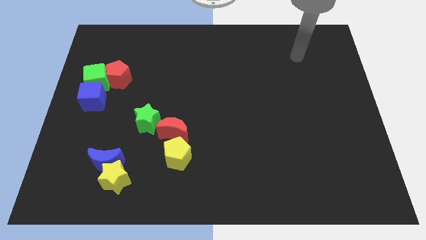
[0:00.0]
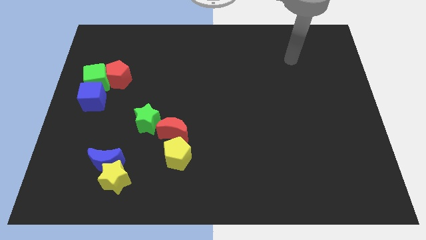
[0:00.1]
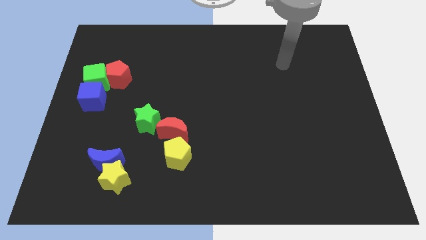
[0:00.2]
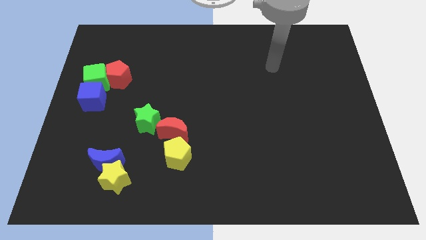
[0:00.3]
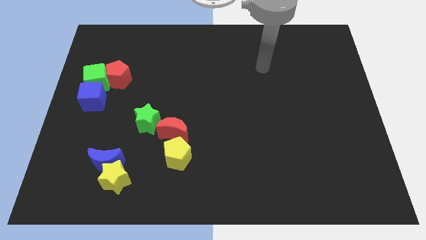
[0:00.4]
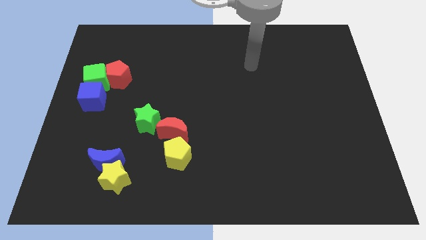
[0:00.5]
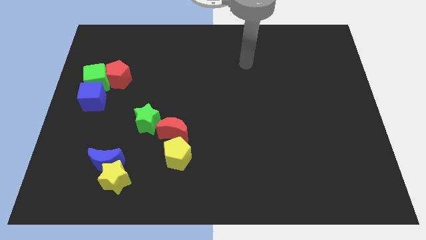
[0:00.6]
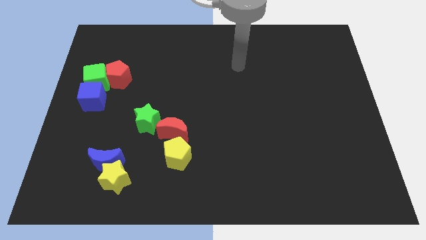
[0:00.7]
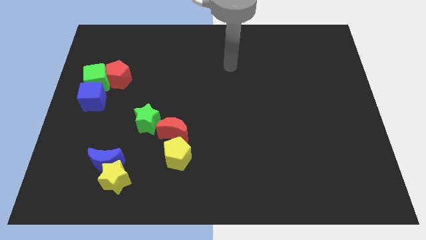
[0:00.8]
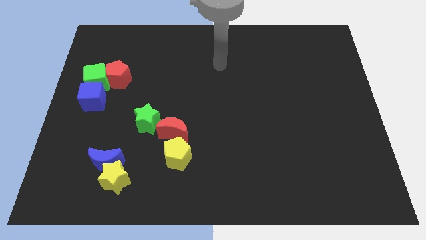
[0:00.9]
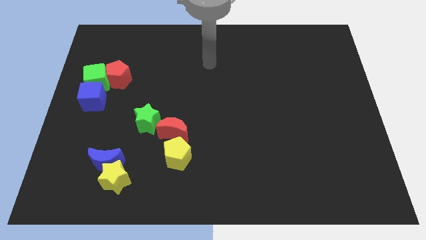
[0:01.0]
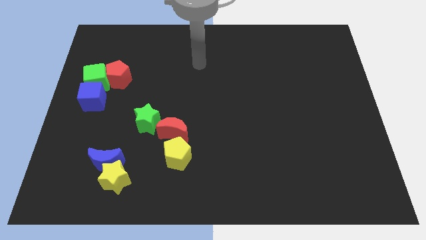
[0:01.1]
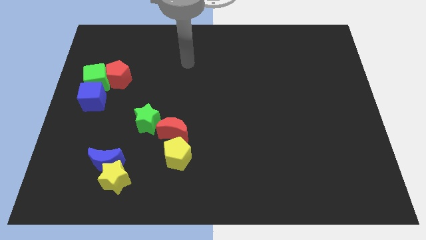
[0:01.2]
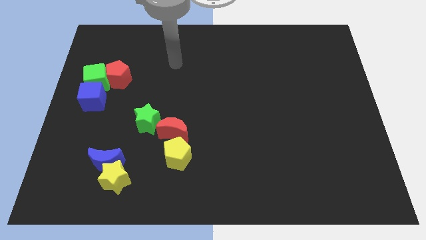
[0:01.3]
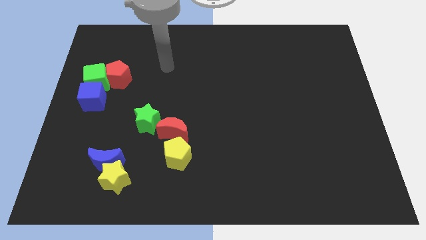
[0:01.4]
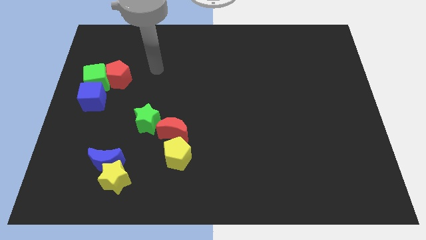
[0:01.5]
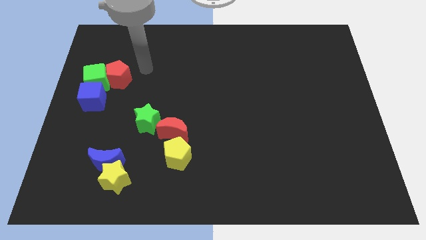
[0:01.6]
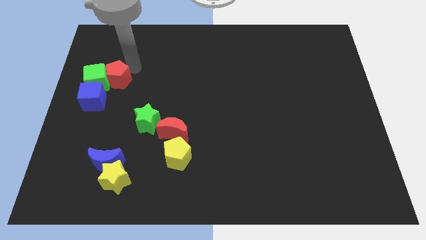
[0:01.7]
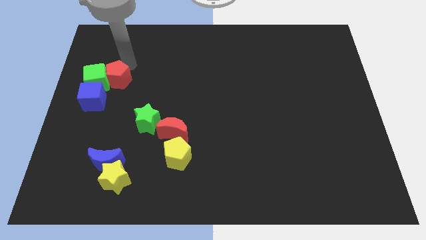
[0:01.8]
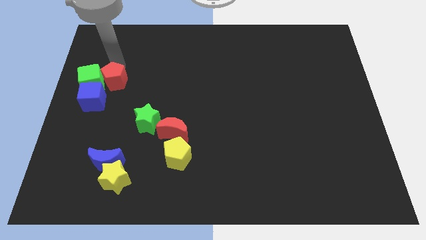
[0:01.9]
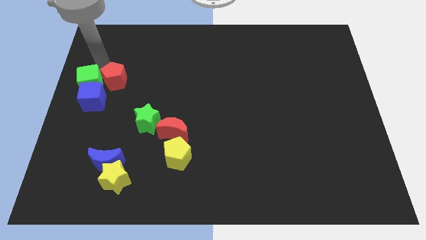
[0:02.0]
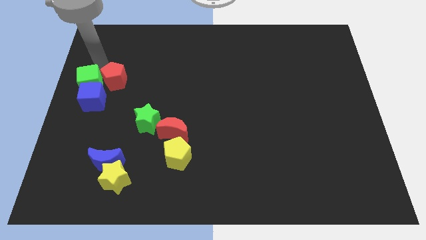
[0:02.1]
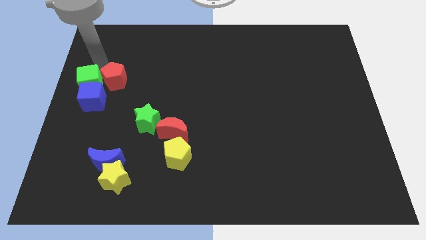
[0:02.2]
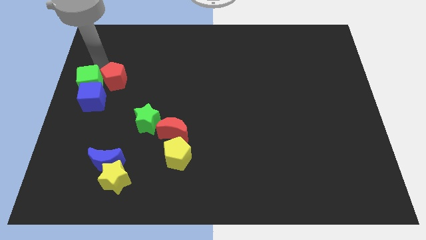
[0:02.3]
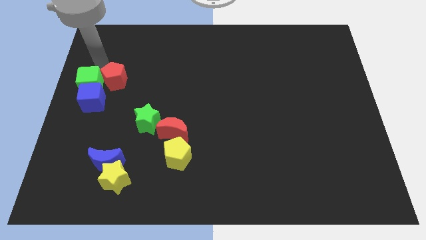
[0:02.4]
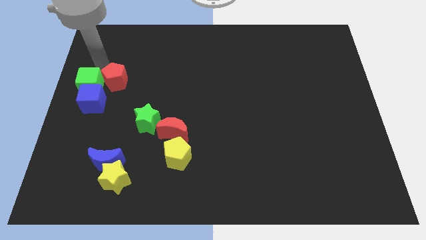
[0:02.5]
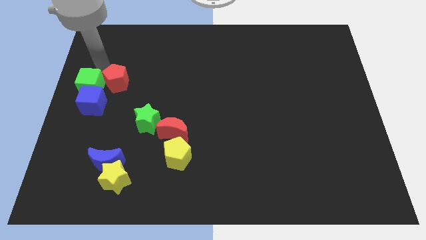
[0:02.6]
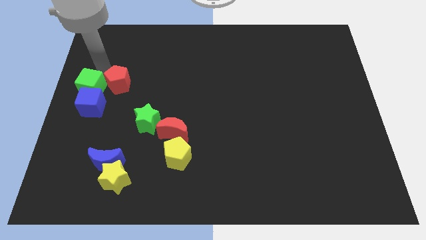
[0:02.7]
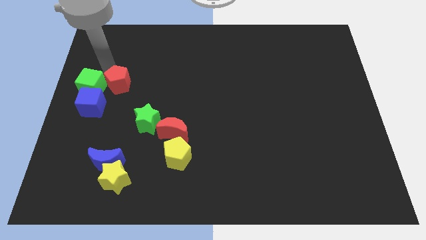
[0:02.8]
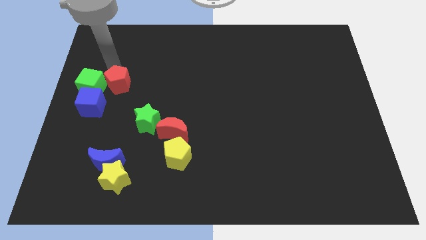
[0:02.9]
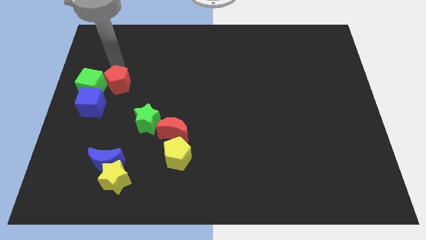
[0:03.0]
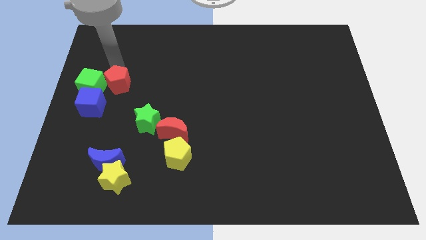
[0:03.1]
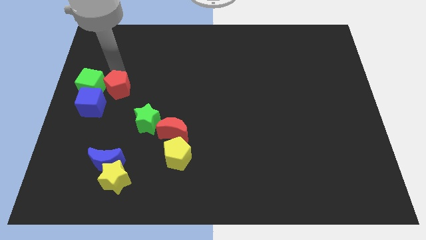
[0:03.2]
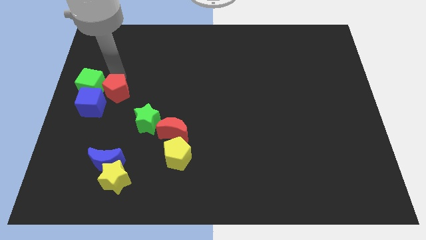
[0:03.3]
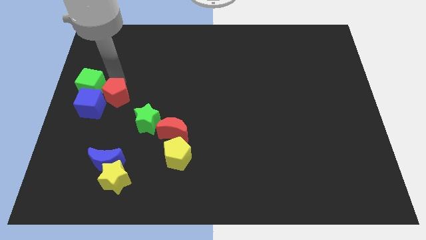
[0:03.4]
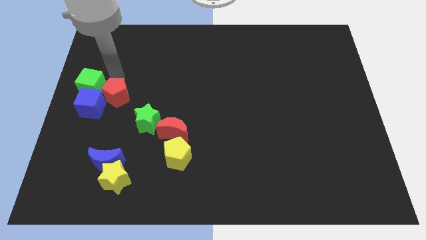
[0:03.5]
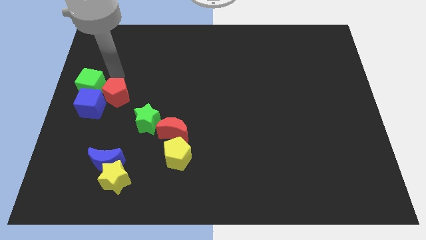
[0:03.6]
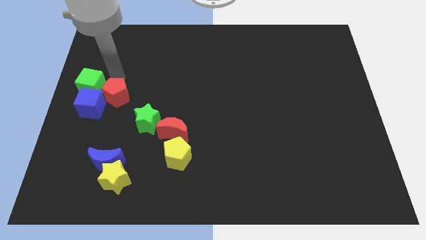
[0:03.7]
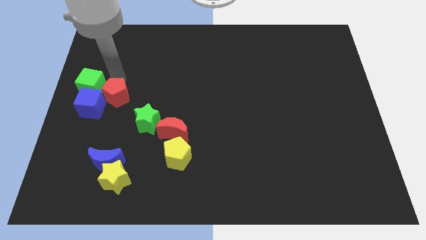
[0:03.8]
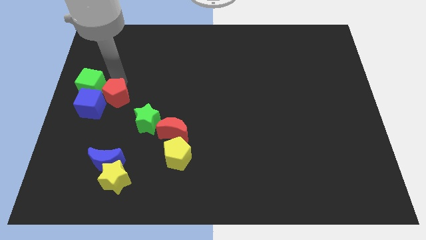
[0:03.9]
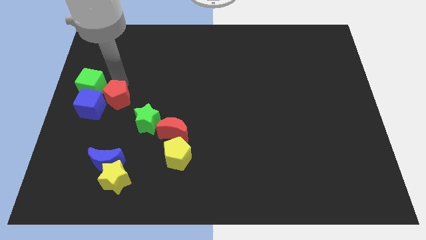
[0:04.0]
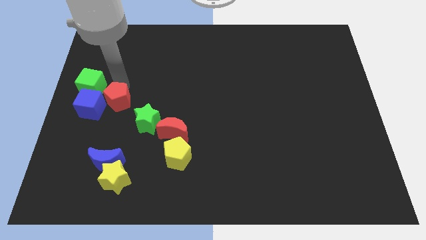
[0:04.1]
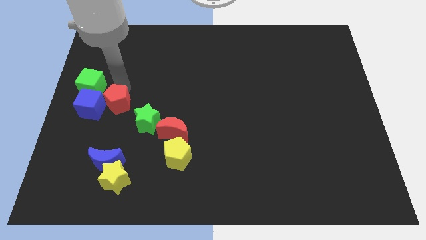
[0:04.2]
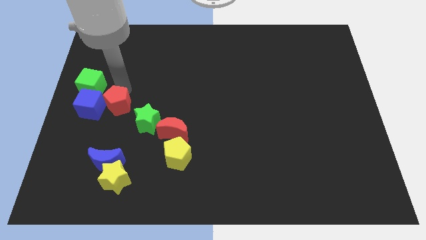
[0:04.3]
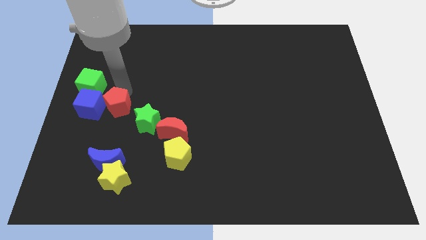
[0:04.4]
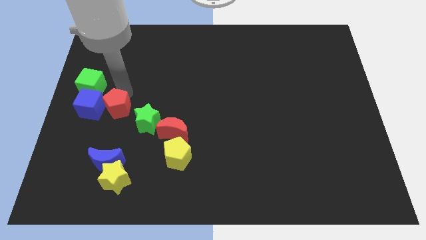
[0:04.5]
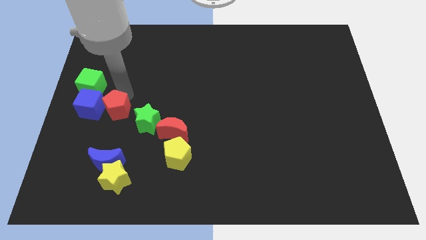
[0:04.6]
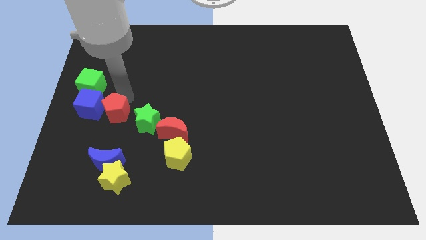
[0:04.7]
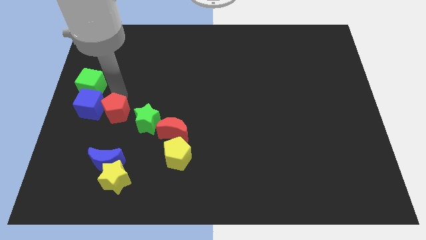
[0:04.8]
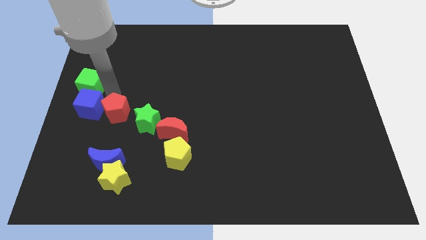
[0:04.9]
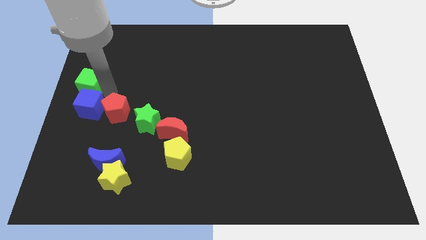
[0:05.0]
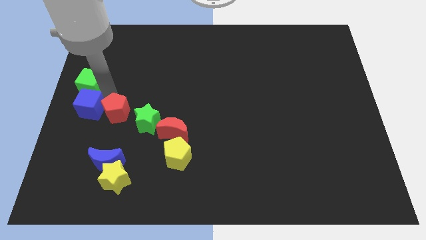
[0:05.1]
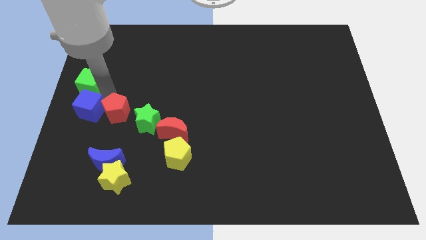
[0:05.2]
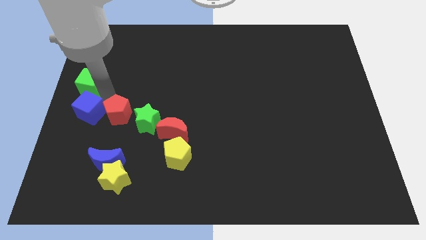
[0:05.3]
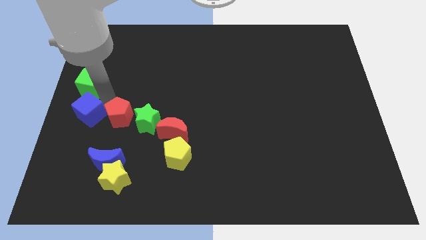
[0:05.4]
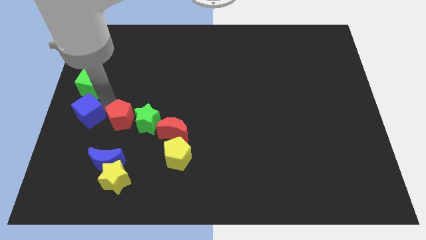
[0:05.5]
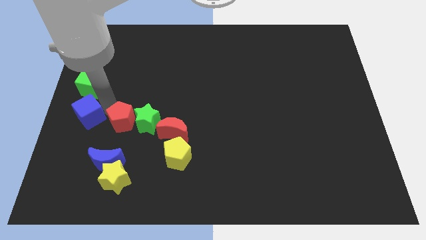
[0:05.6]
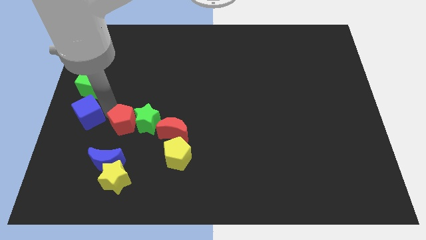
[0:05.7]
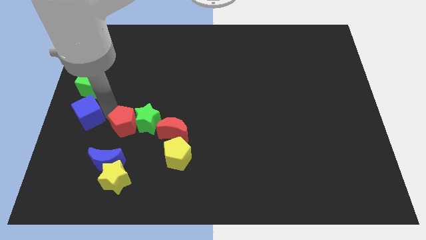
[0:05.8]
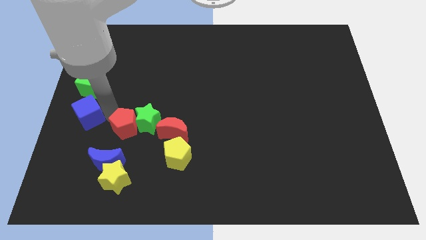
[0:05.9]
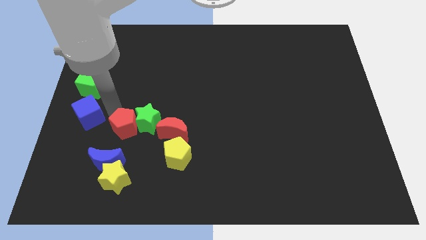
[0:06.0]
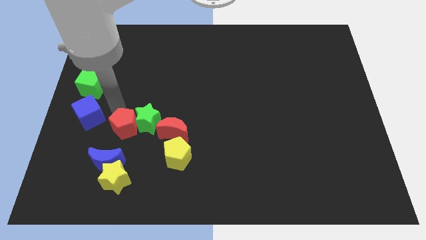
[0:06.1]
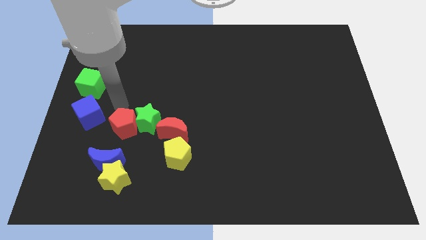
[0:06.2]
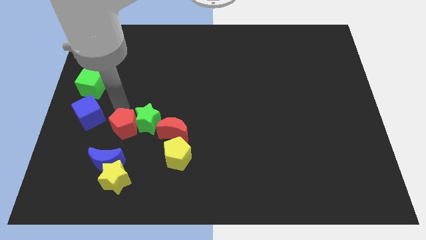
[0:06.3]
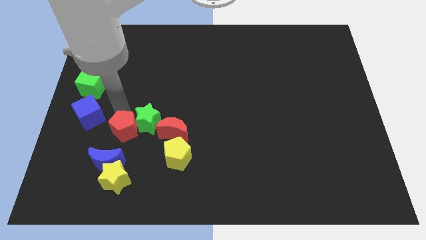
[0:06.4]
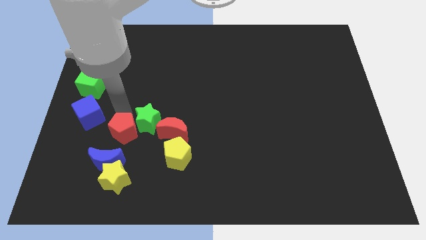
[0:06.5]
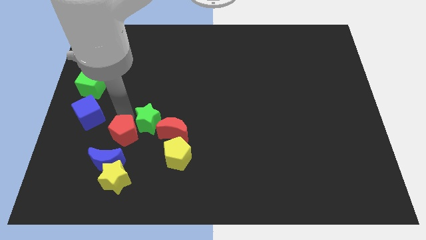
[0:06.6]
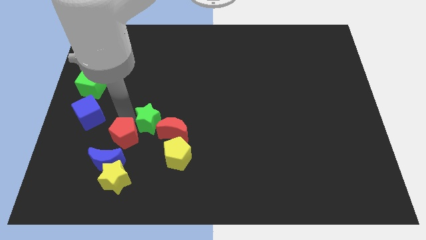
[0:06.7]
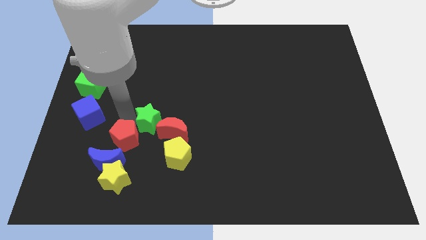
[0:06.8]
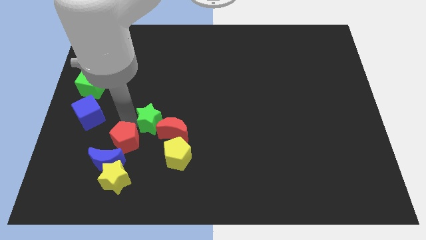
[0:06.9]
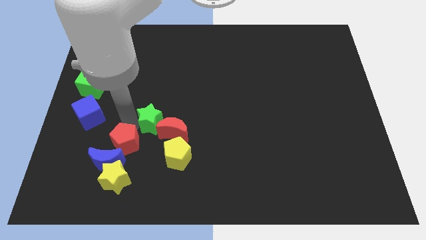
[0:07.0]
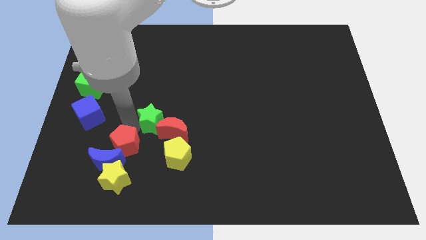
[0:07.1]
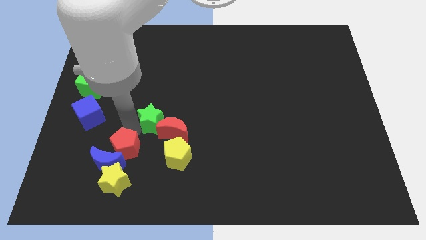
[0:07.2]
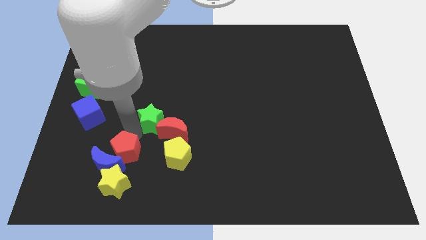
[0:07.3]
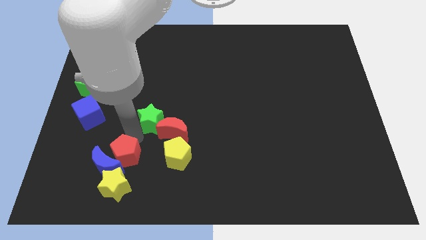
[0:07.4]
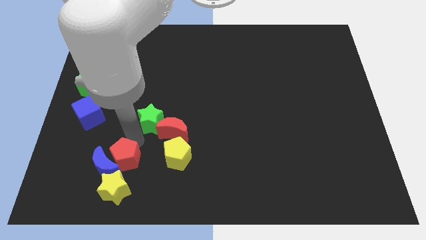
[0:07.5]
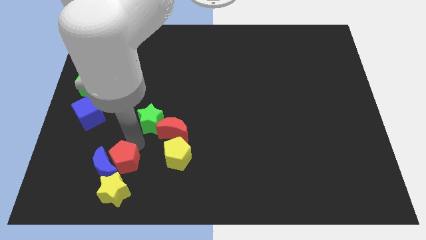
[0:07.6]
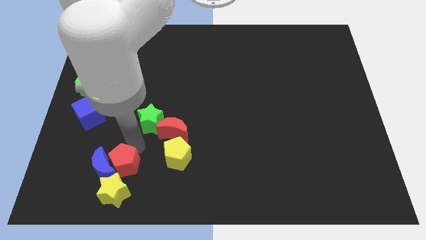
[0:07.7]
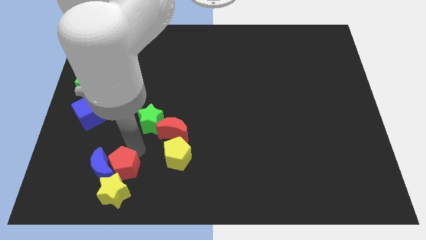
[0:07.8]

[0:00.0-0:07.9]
put the red pentagon close to the yellow star
